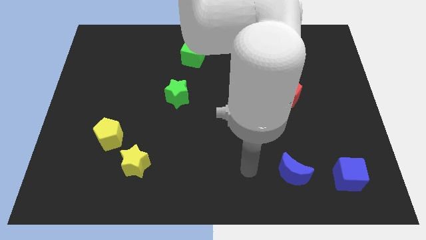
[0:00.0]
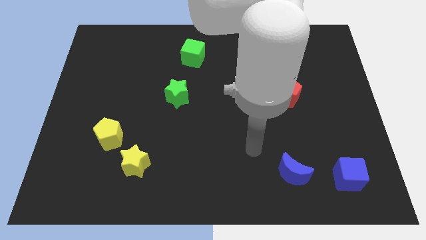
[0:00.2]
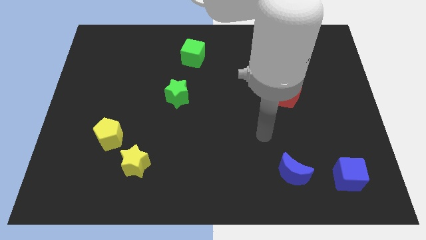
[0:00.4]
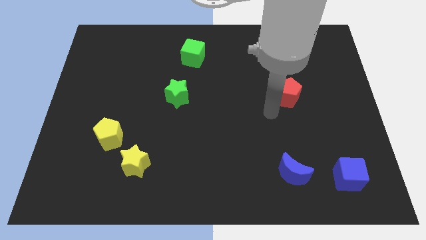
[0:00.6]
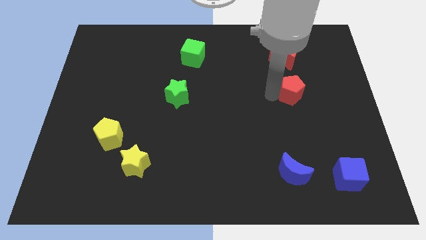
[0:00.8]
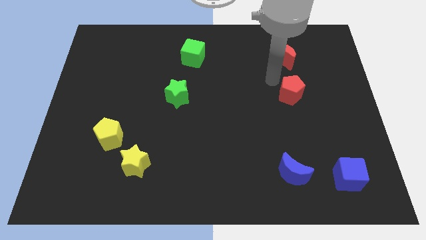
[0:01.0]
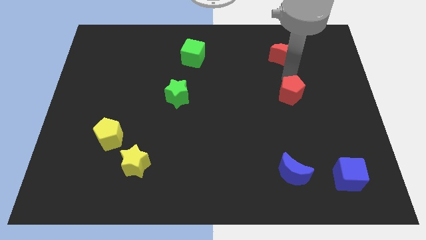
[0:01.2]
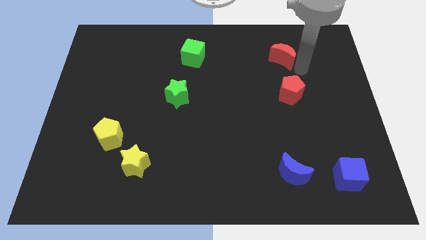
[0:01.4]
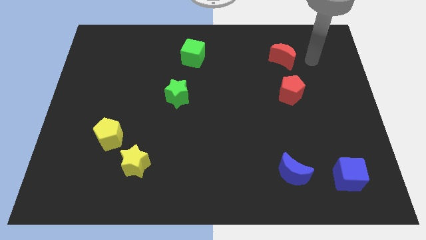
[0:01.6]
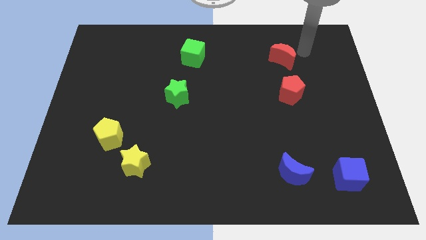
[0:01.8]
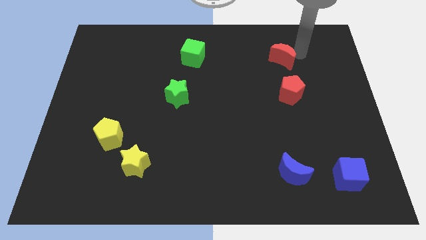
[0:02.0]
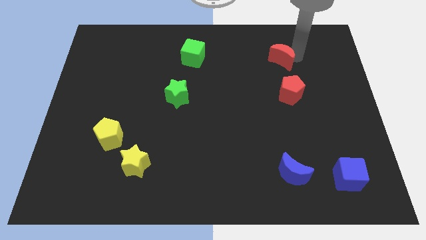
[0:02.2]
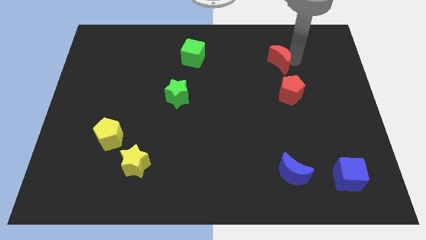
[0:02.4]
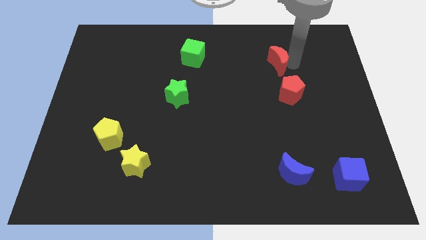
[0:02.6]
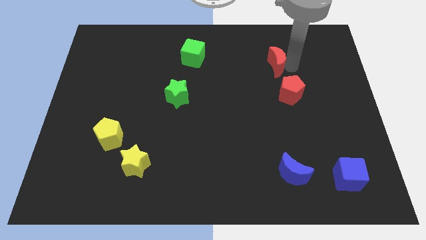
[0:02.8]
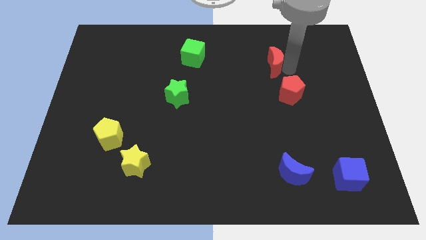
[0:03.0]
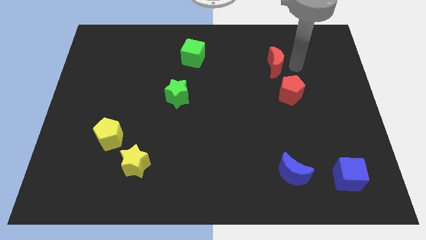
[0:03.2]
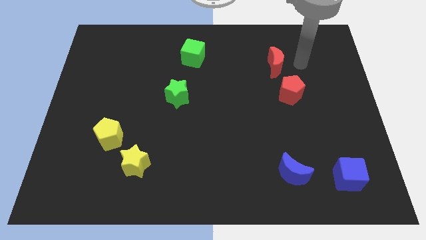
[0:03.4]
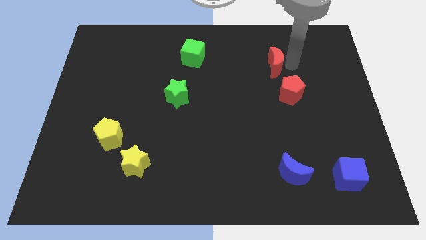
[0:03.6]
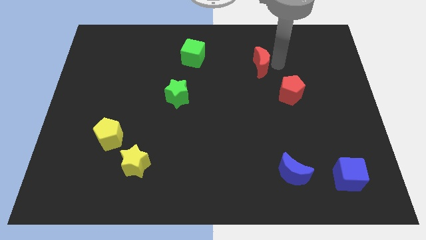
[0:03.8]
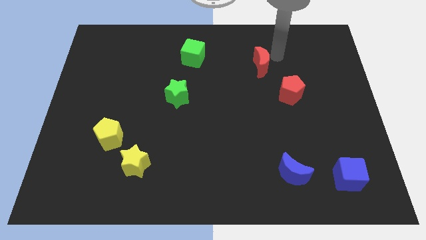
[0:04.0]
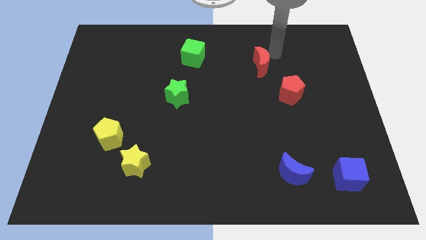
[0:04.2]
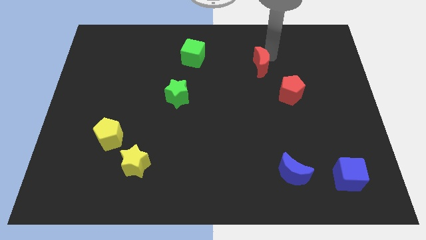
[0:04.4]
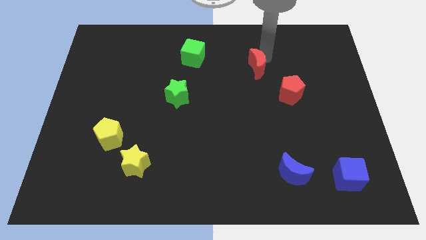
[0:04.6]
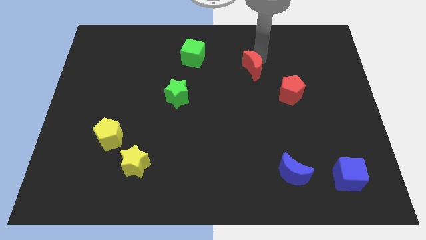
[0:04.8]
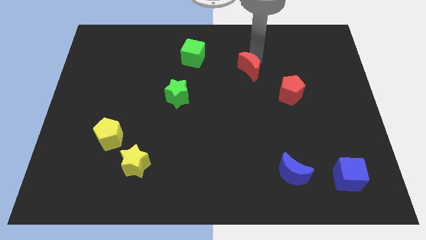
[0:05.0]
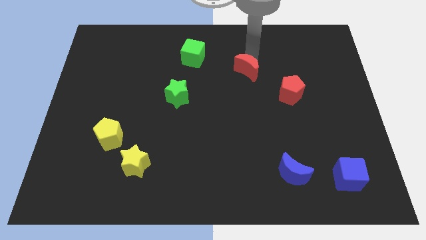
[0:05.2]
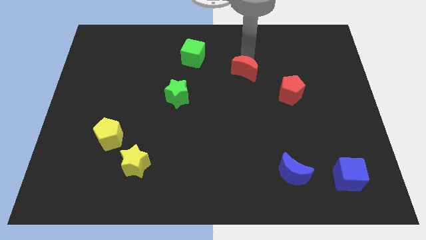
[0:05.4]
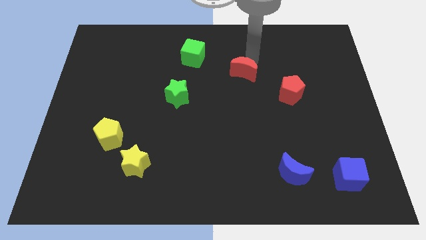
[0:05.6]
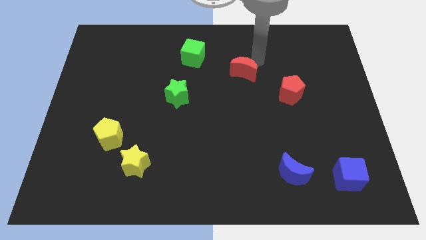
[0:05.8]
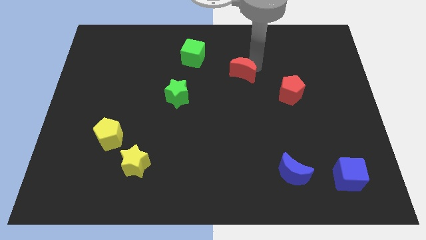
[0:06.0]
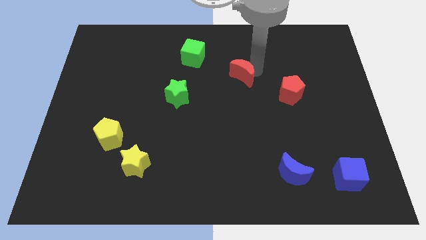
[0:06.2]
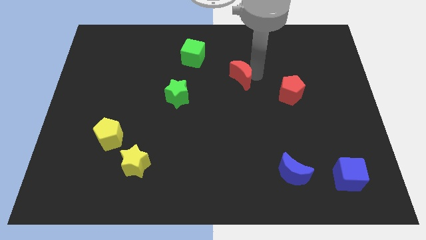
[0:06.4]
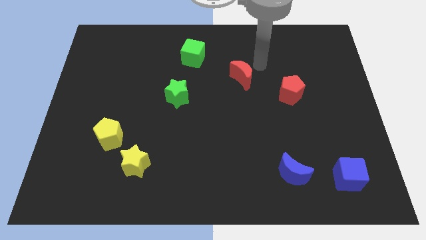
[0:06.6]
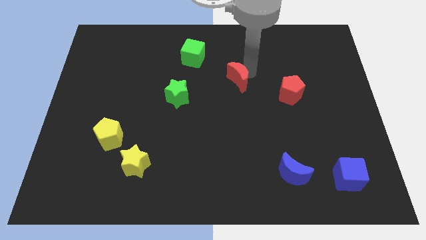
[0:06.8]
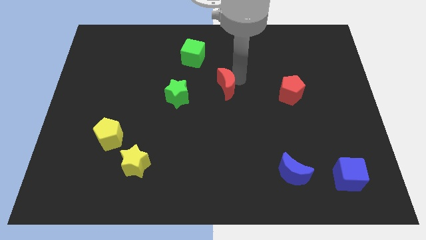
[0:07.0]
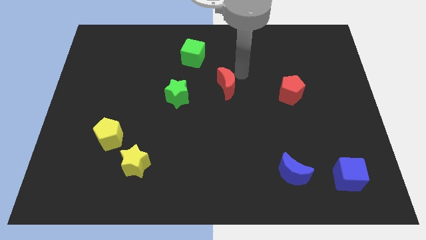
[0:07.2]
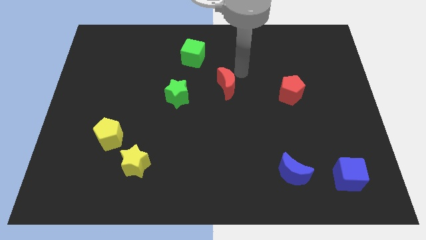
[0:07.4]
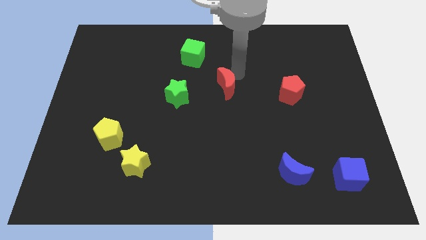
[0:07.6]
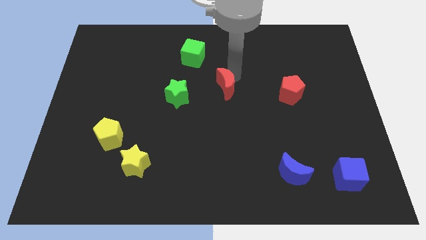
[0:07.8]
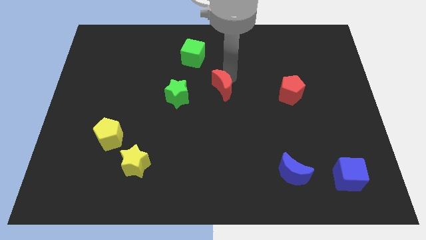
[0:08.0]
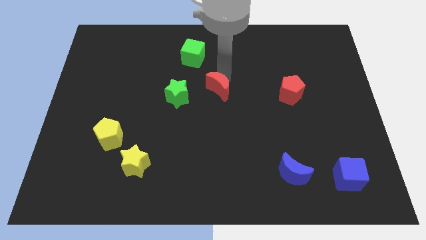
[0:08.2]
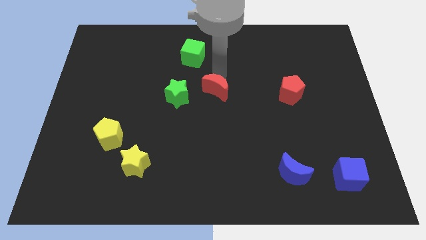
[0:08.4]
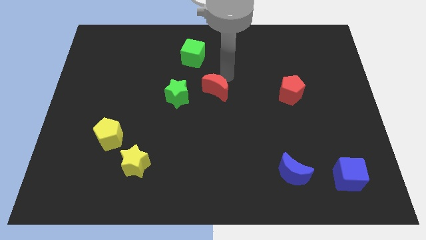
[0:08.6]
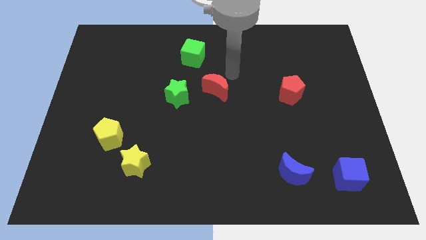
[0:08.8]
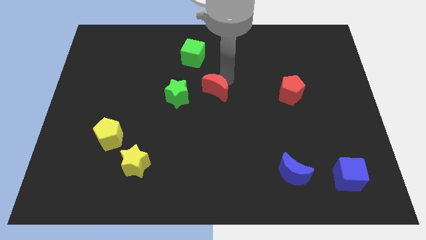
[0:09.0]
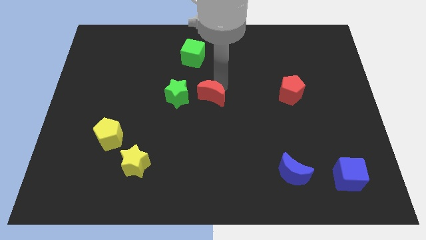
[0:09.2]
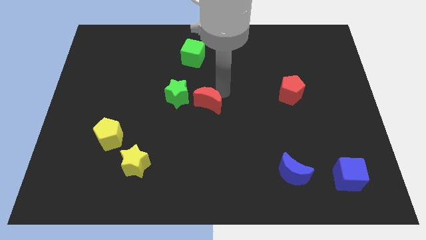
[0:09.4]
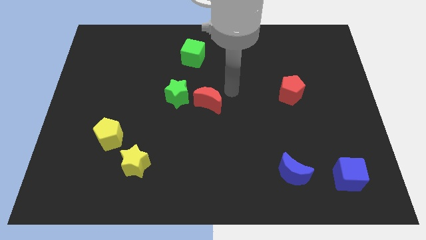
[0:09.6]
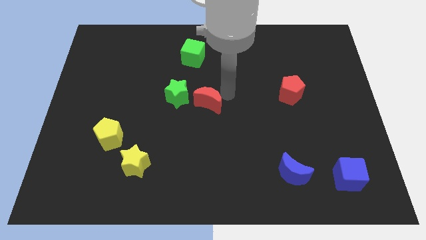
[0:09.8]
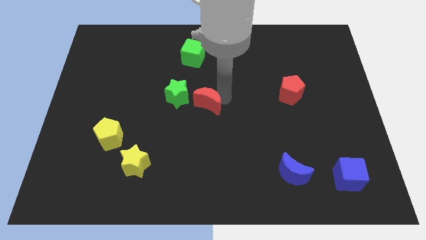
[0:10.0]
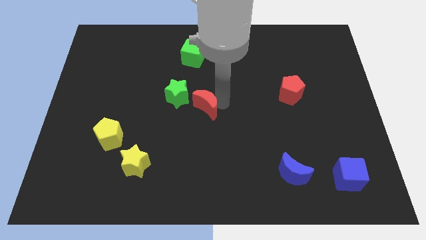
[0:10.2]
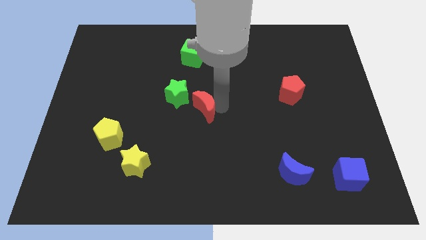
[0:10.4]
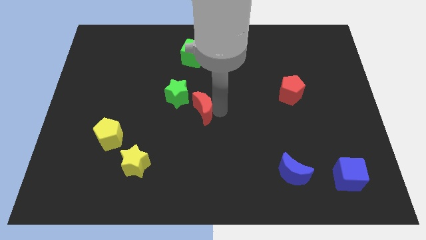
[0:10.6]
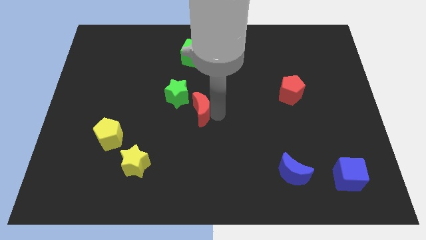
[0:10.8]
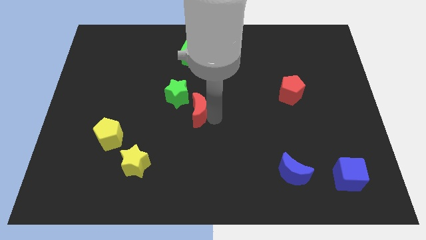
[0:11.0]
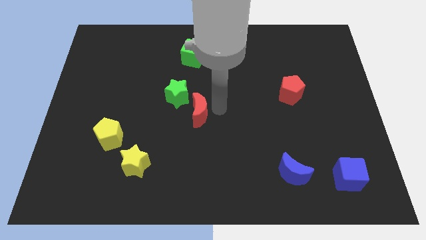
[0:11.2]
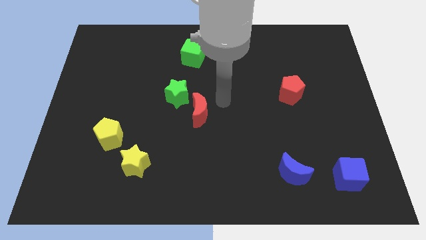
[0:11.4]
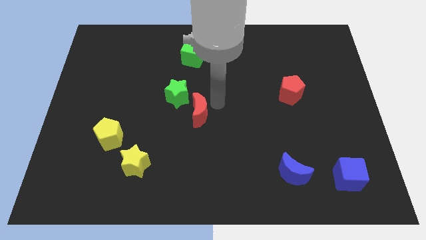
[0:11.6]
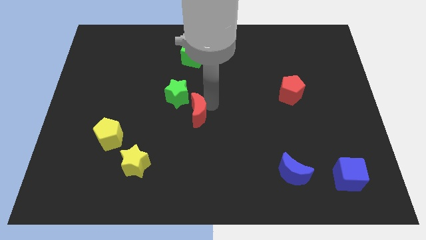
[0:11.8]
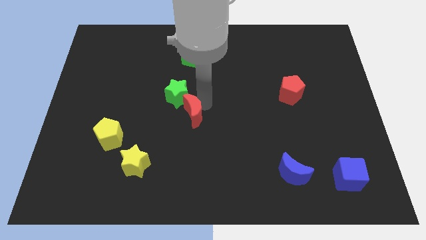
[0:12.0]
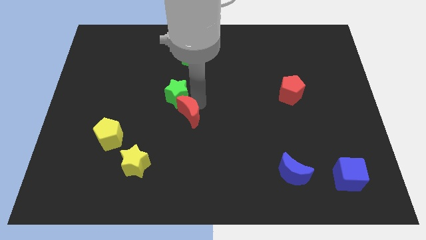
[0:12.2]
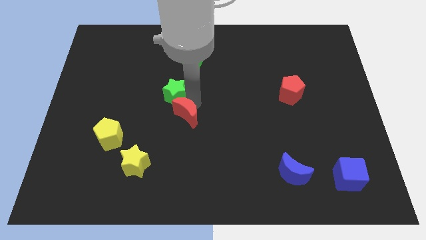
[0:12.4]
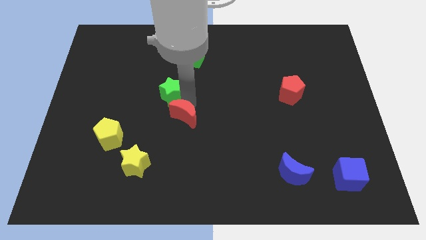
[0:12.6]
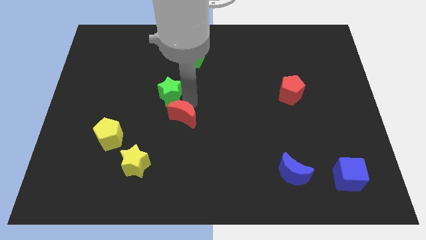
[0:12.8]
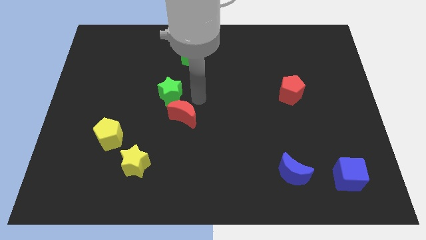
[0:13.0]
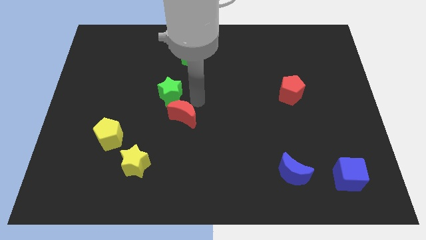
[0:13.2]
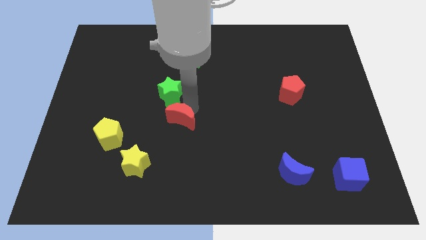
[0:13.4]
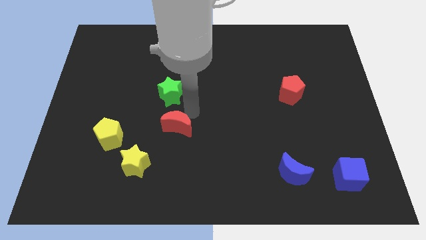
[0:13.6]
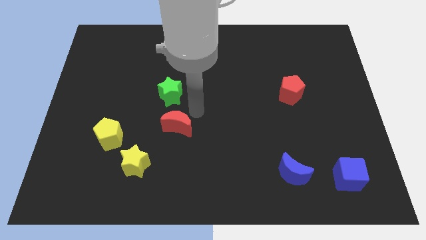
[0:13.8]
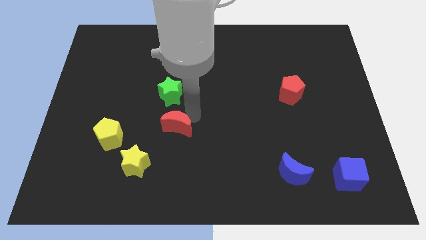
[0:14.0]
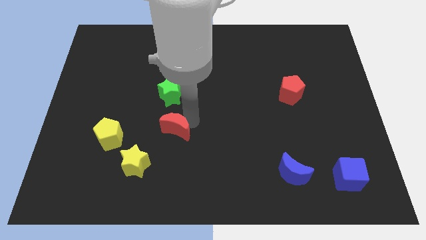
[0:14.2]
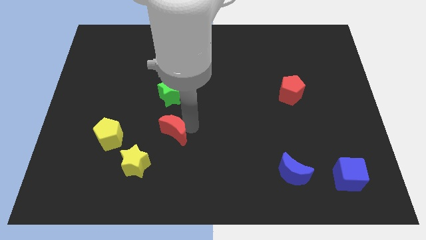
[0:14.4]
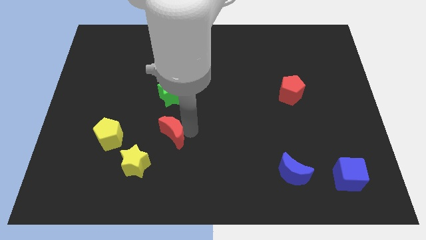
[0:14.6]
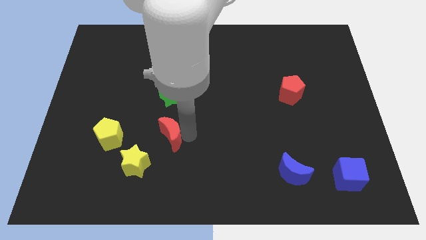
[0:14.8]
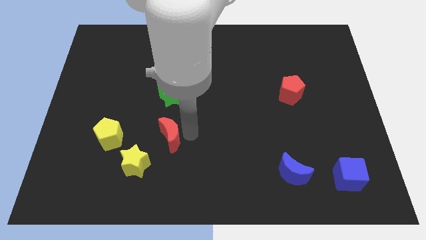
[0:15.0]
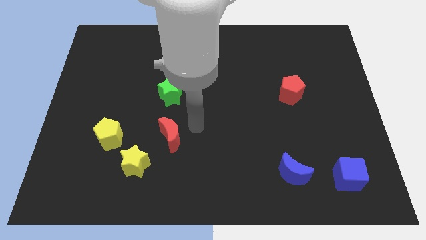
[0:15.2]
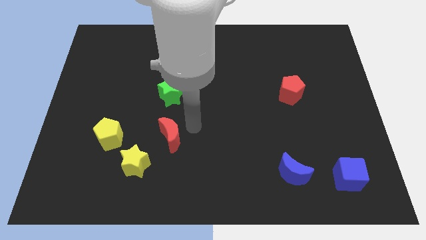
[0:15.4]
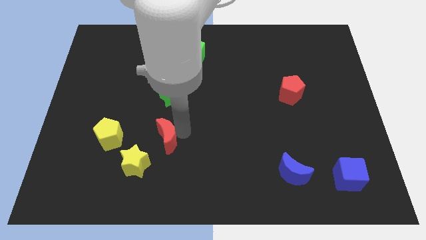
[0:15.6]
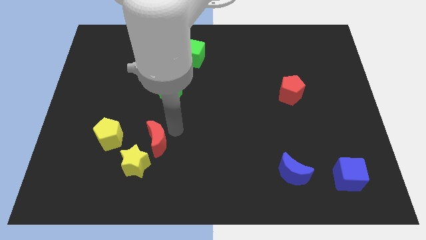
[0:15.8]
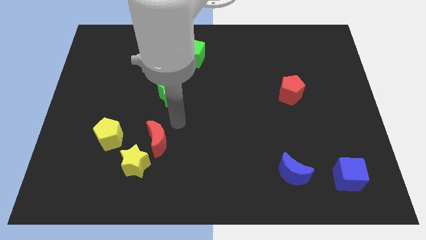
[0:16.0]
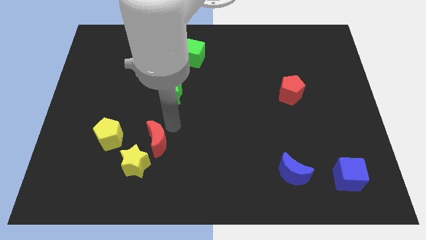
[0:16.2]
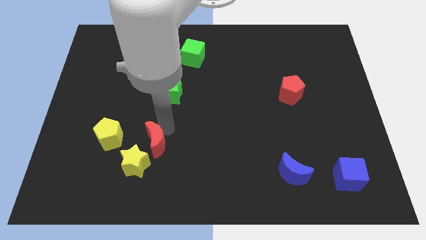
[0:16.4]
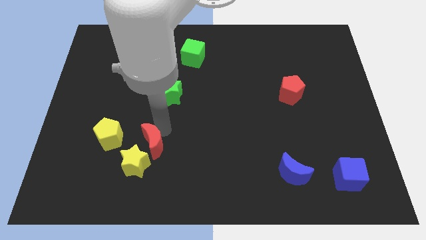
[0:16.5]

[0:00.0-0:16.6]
slide the red moon next to the yellow star
